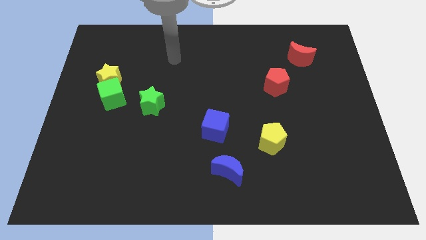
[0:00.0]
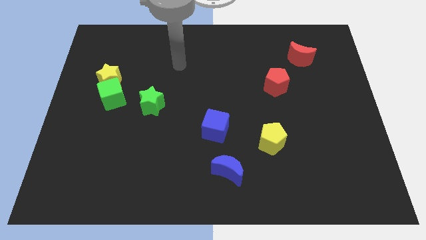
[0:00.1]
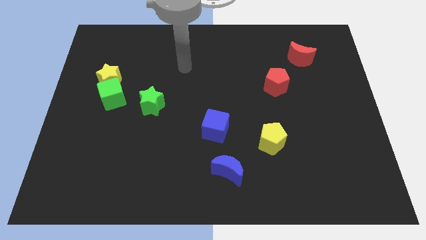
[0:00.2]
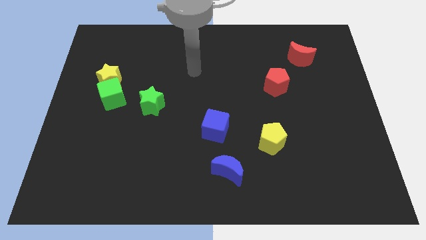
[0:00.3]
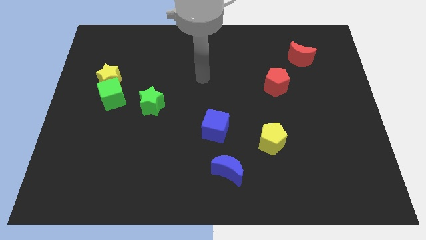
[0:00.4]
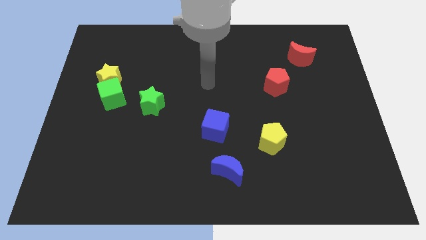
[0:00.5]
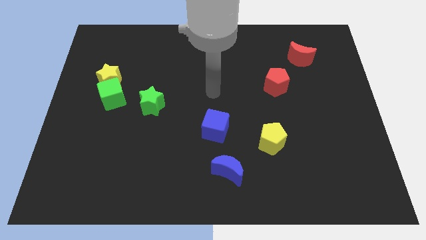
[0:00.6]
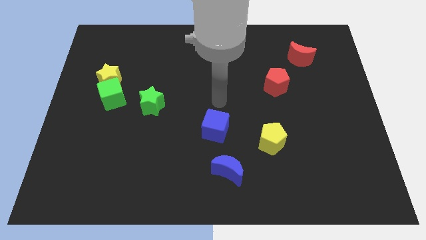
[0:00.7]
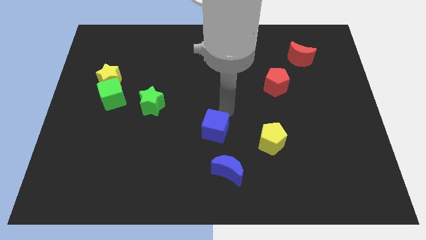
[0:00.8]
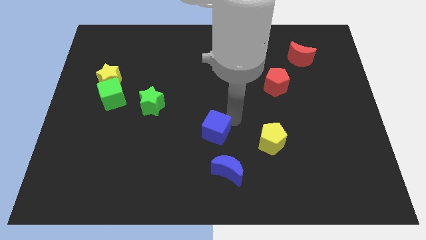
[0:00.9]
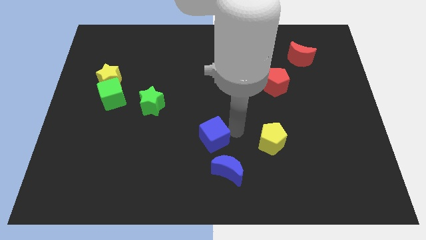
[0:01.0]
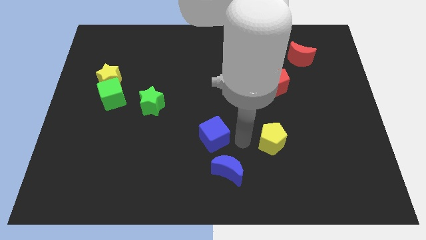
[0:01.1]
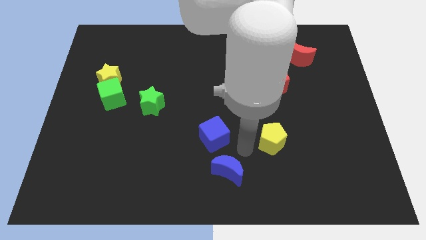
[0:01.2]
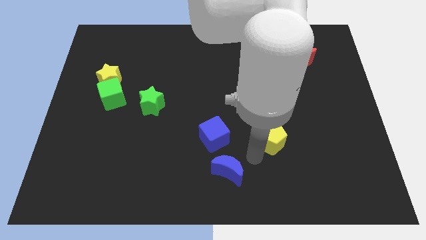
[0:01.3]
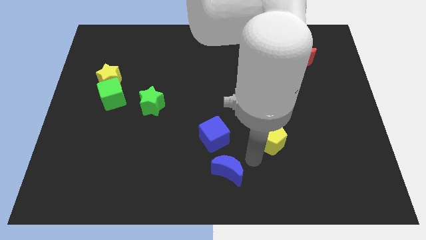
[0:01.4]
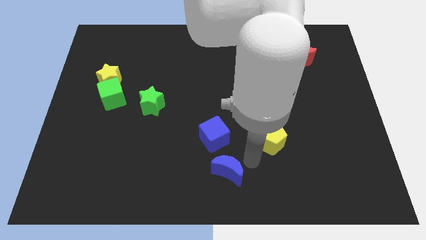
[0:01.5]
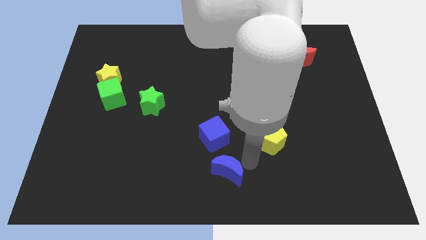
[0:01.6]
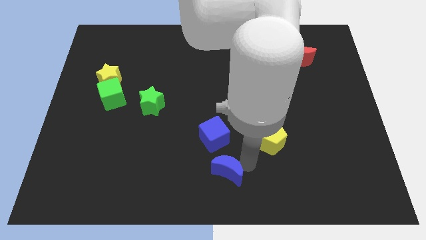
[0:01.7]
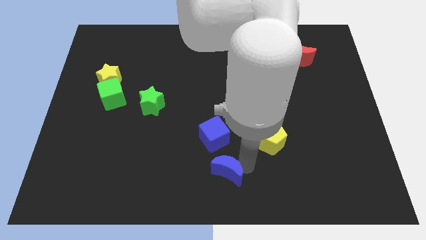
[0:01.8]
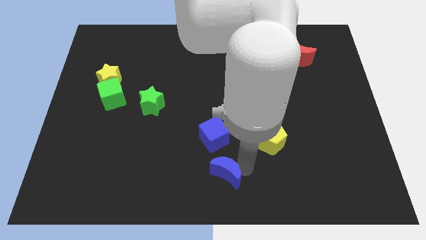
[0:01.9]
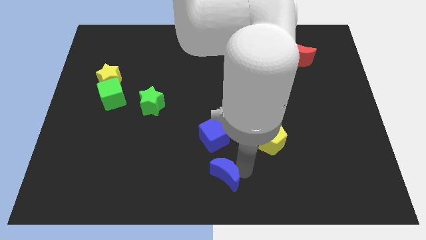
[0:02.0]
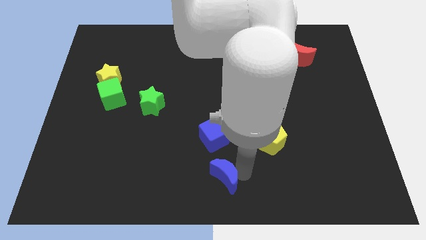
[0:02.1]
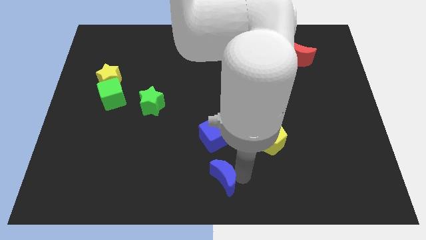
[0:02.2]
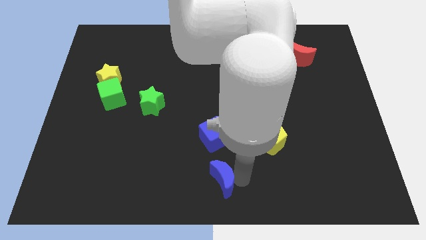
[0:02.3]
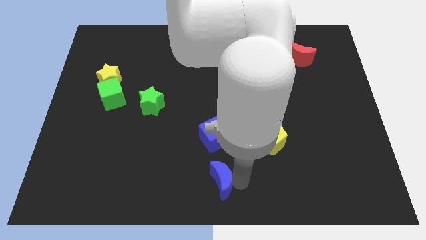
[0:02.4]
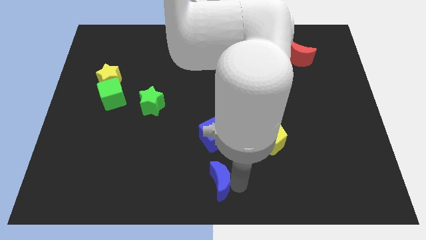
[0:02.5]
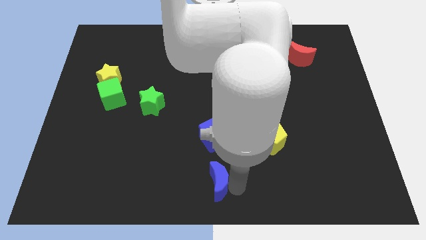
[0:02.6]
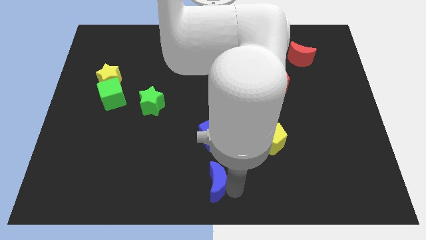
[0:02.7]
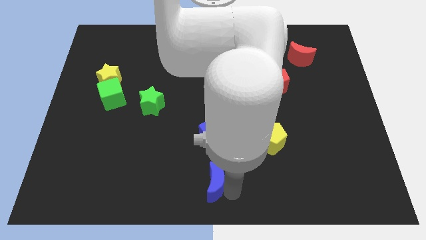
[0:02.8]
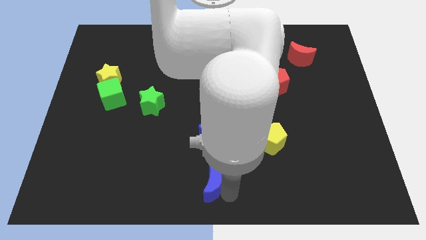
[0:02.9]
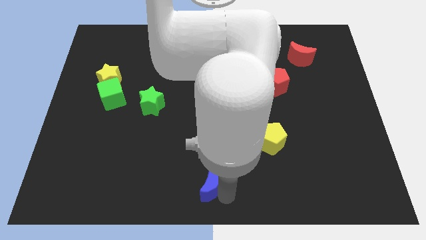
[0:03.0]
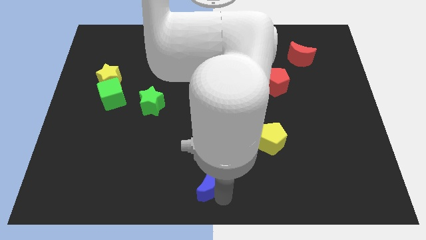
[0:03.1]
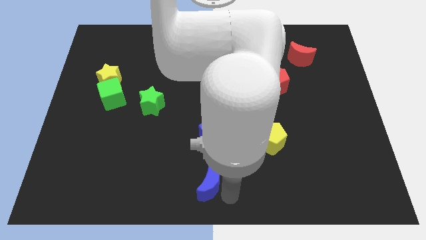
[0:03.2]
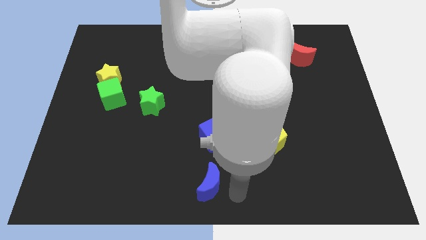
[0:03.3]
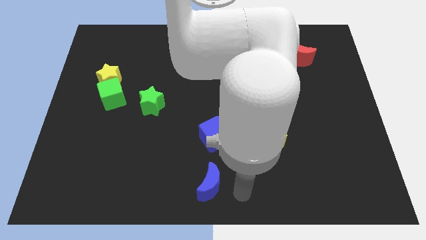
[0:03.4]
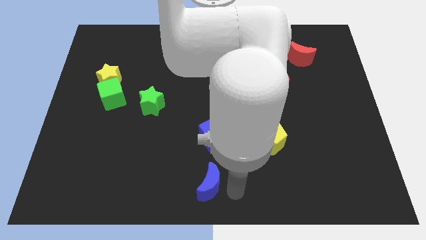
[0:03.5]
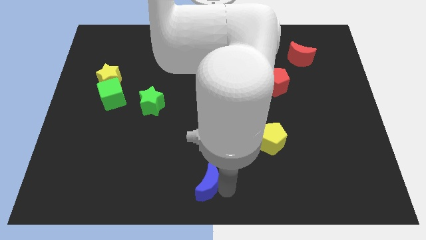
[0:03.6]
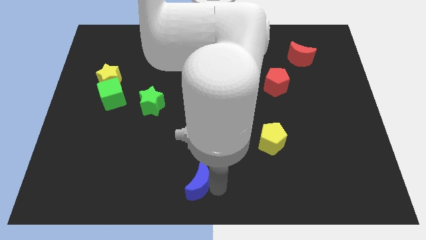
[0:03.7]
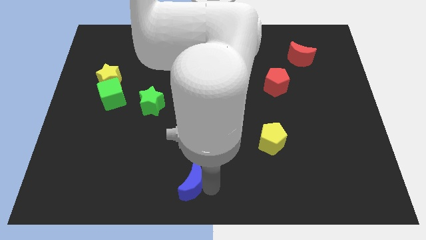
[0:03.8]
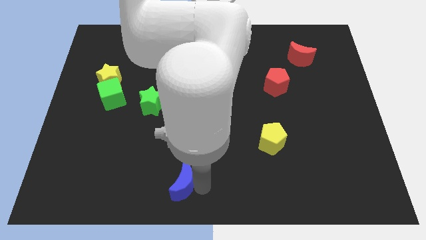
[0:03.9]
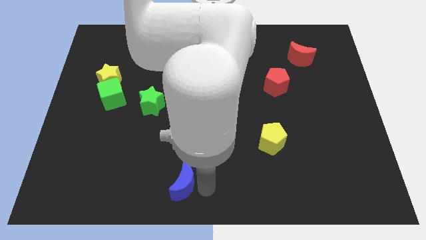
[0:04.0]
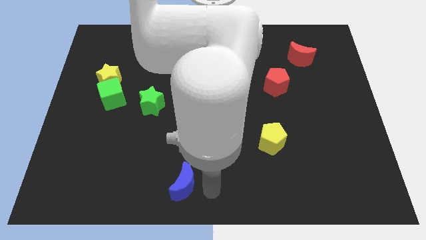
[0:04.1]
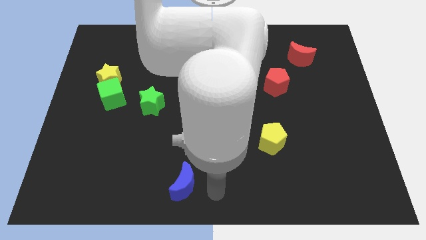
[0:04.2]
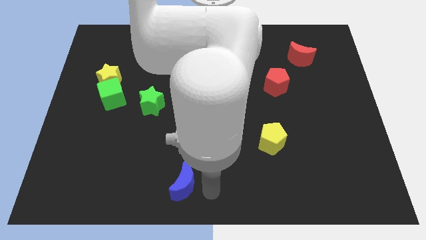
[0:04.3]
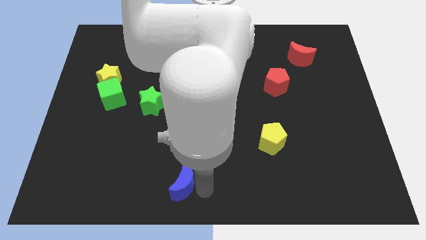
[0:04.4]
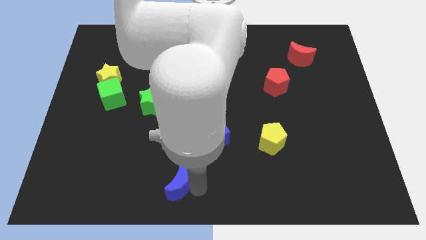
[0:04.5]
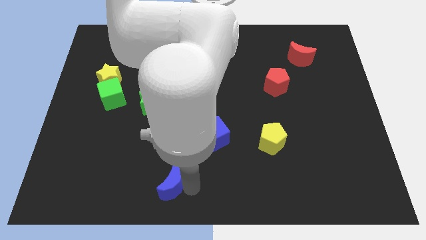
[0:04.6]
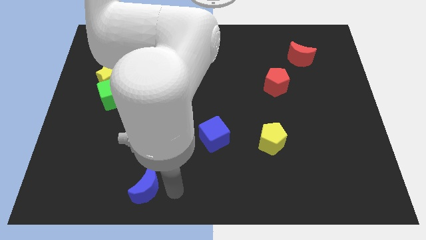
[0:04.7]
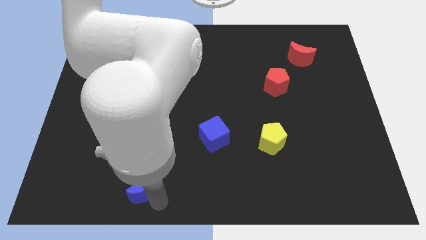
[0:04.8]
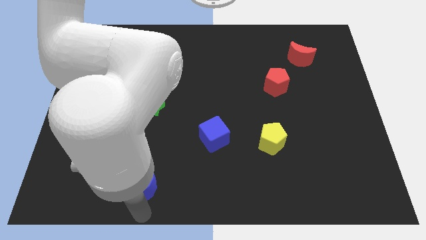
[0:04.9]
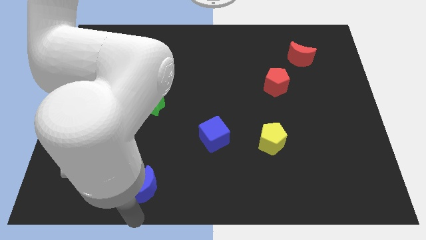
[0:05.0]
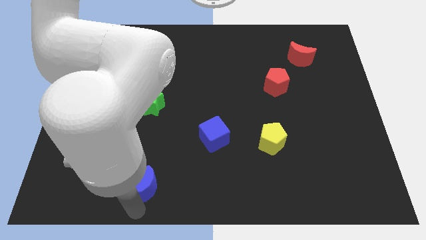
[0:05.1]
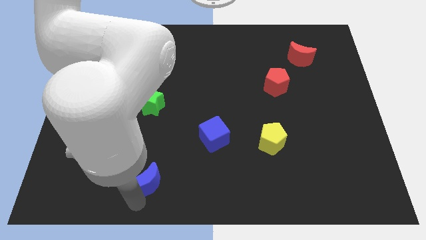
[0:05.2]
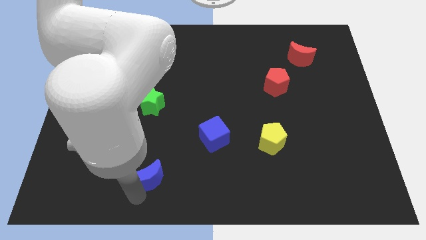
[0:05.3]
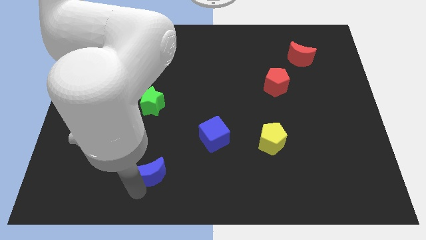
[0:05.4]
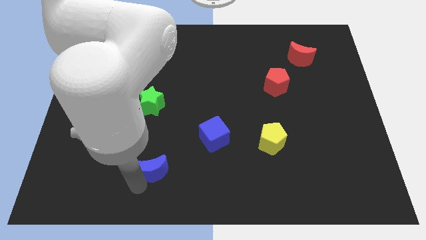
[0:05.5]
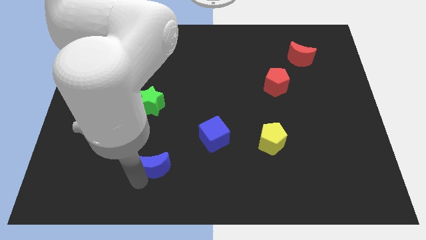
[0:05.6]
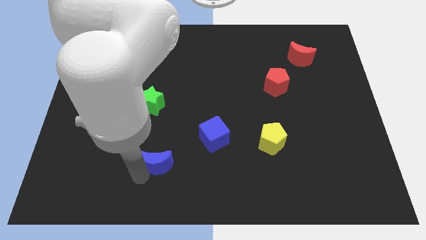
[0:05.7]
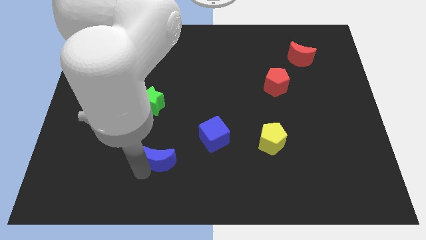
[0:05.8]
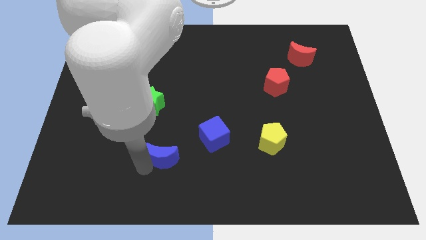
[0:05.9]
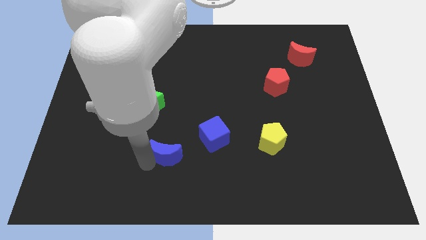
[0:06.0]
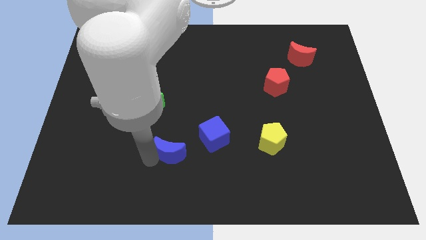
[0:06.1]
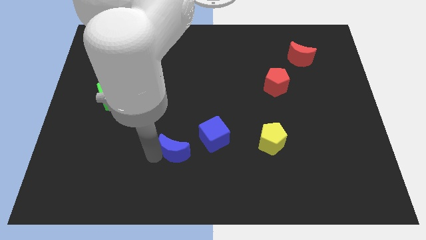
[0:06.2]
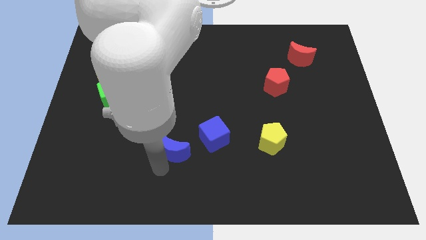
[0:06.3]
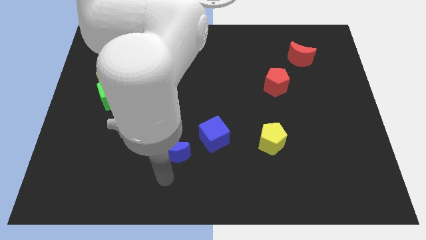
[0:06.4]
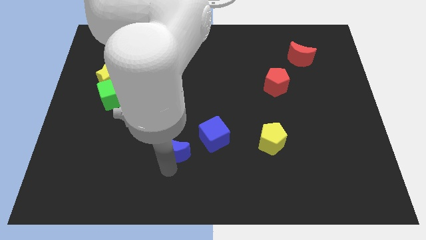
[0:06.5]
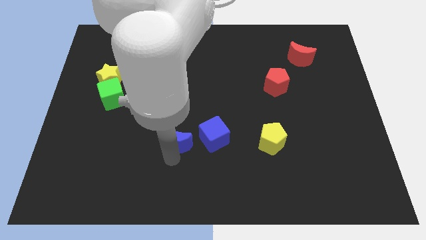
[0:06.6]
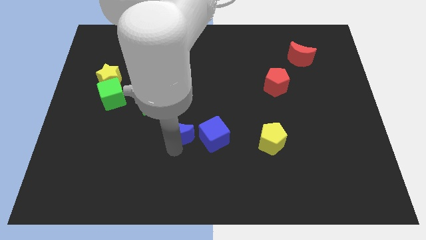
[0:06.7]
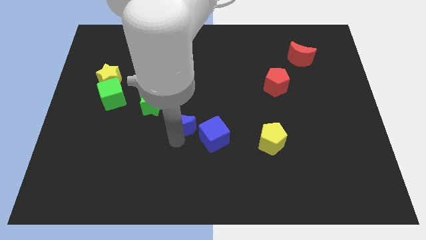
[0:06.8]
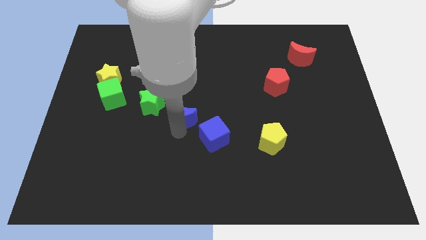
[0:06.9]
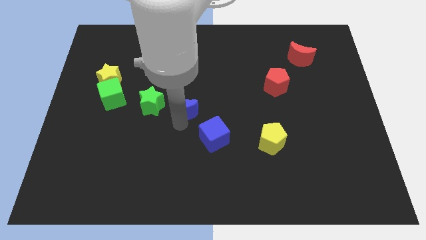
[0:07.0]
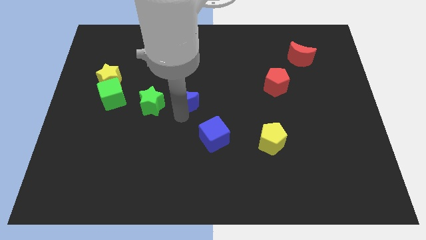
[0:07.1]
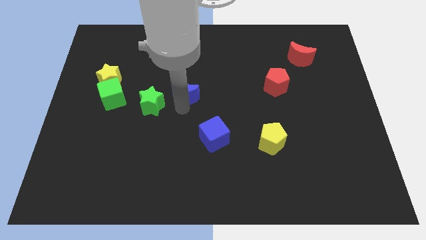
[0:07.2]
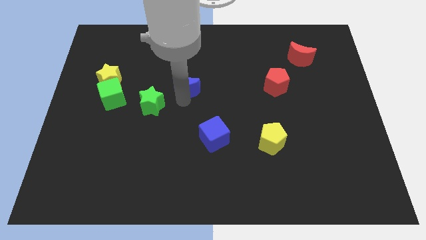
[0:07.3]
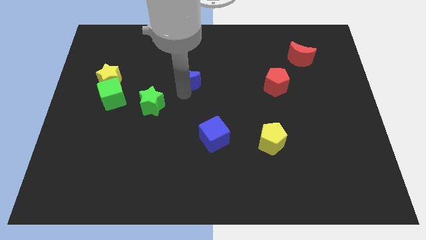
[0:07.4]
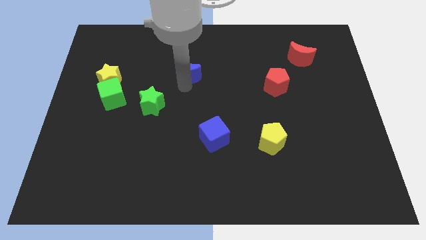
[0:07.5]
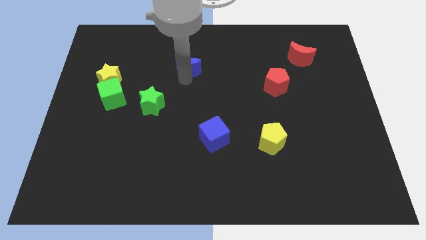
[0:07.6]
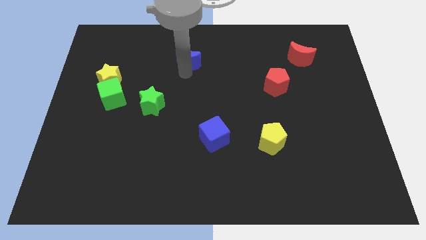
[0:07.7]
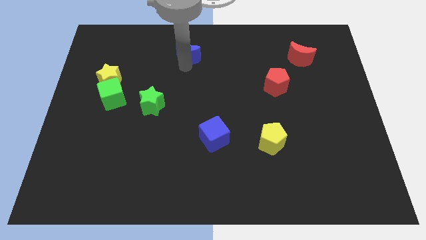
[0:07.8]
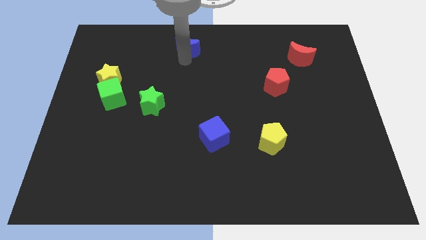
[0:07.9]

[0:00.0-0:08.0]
move the blue moon to the top side
